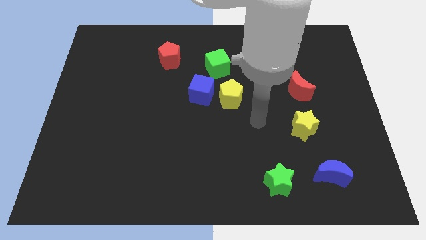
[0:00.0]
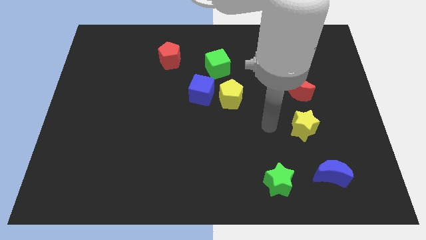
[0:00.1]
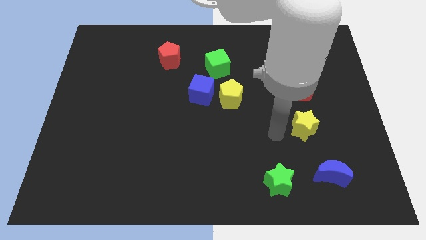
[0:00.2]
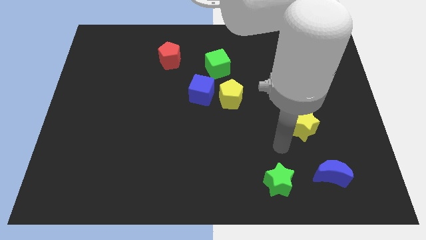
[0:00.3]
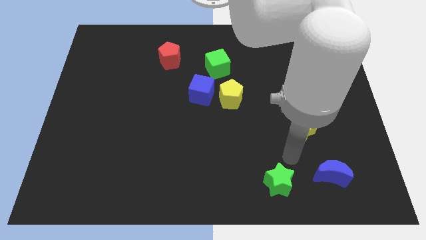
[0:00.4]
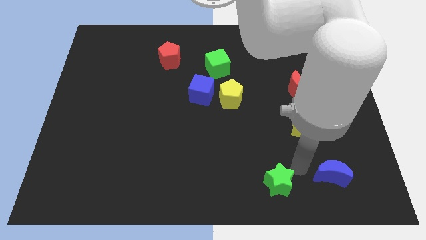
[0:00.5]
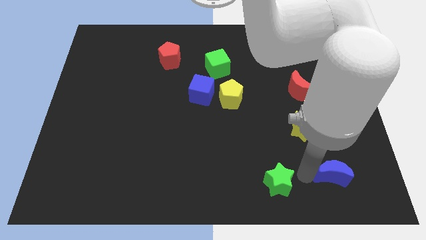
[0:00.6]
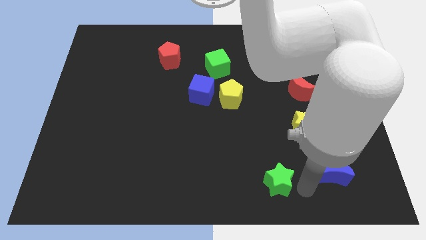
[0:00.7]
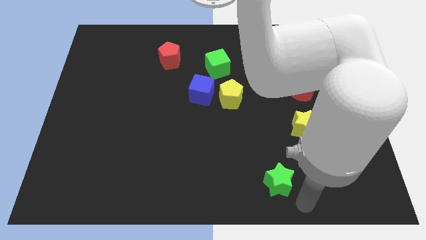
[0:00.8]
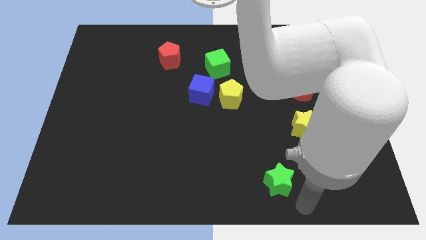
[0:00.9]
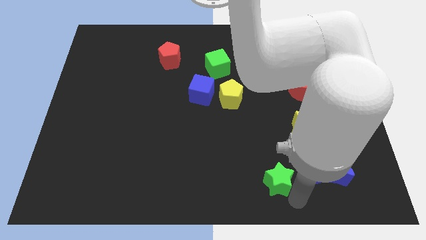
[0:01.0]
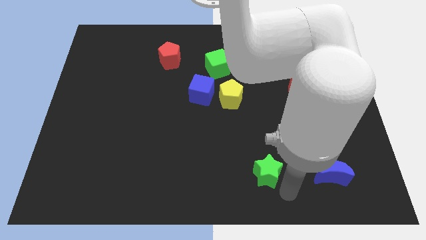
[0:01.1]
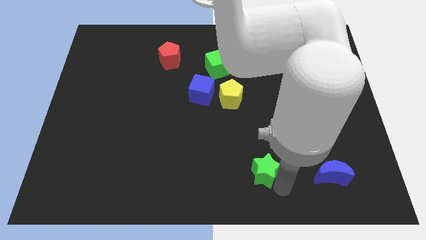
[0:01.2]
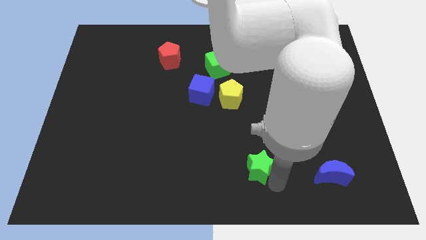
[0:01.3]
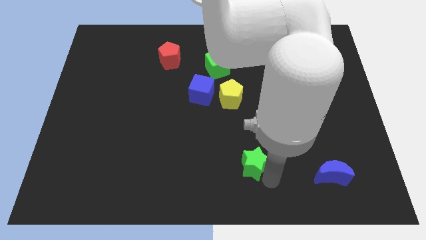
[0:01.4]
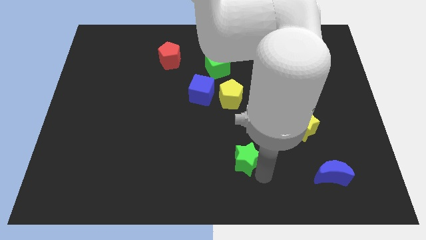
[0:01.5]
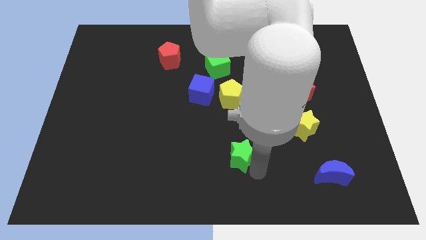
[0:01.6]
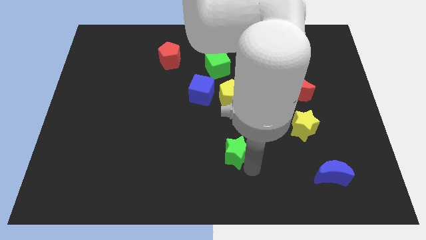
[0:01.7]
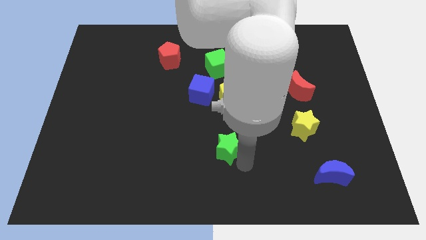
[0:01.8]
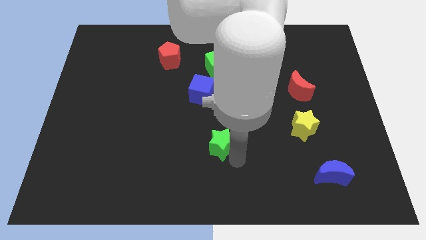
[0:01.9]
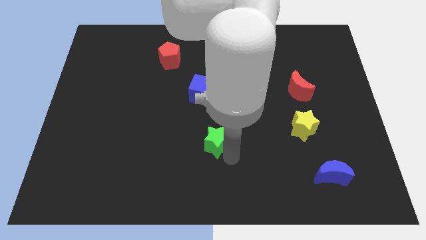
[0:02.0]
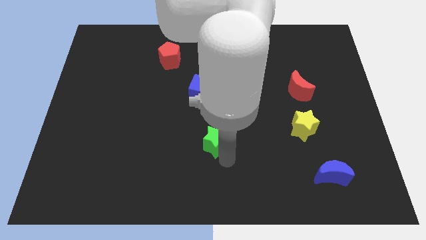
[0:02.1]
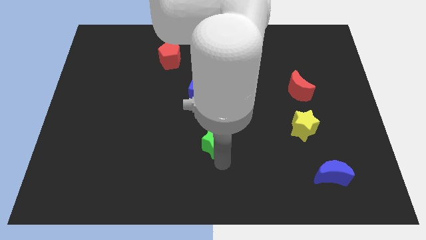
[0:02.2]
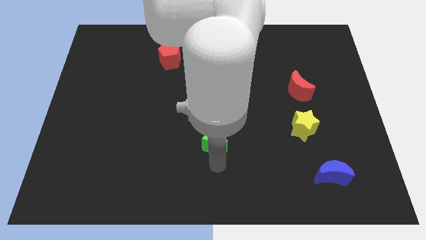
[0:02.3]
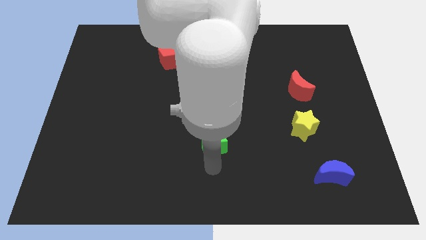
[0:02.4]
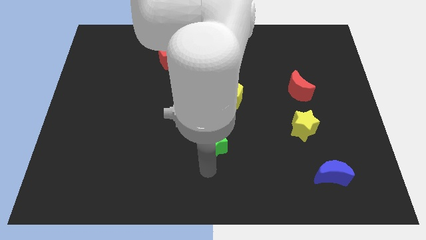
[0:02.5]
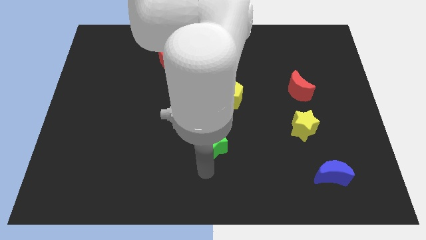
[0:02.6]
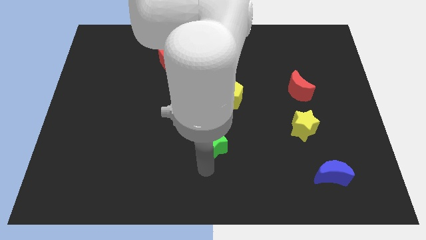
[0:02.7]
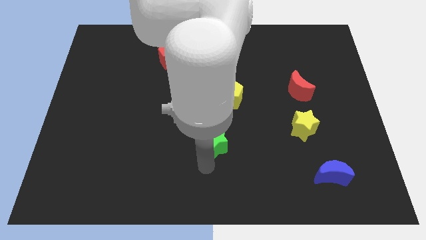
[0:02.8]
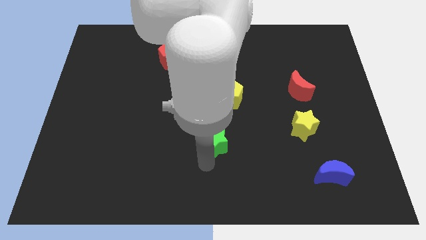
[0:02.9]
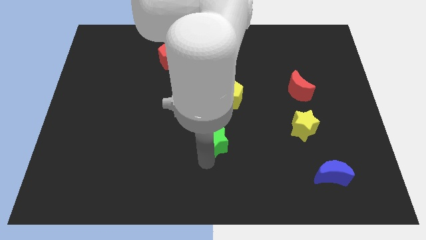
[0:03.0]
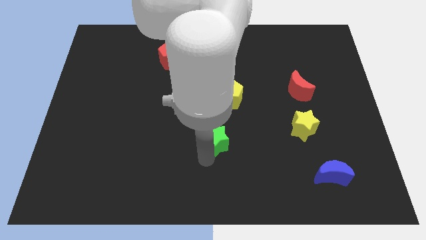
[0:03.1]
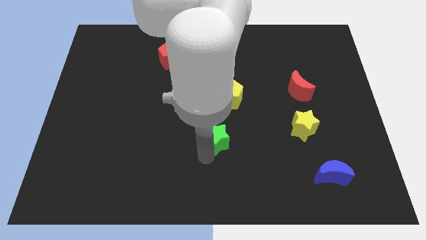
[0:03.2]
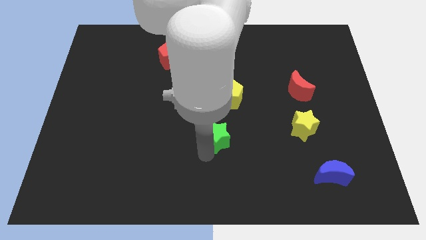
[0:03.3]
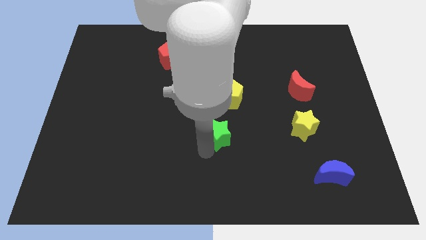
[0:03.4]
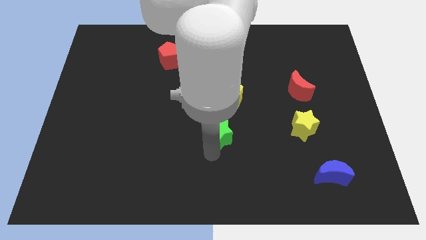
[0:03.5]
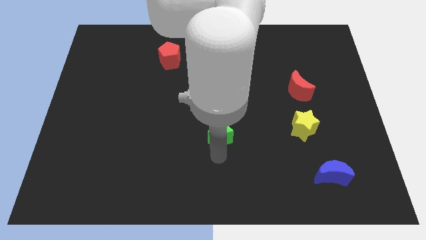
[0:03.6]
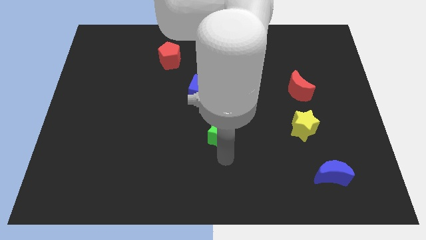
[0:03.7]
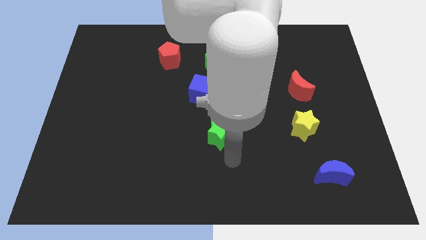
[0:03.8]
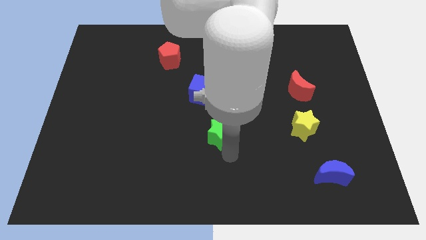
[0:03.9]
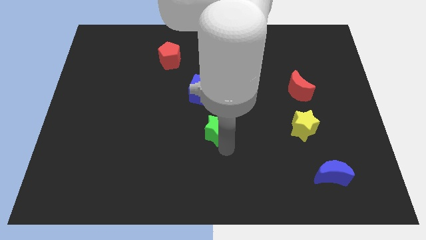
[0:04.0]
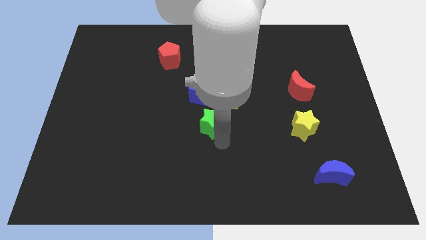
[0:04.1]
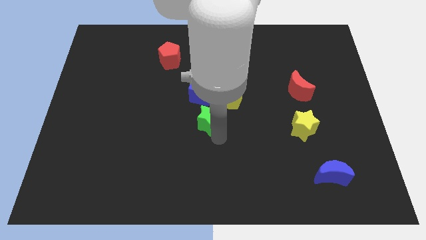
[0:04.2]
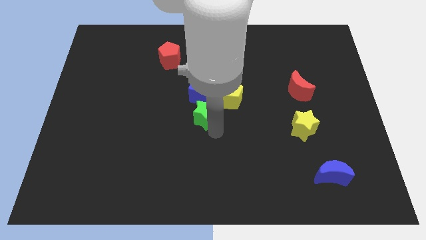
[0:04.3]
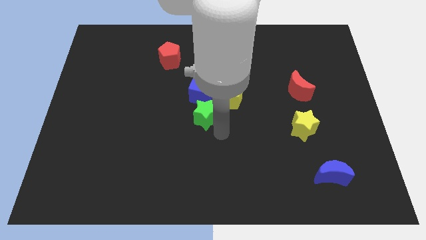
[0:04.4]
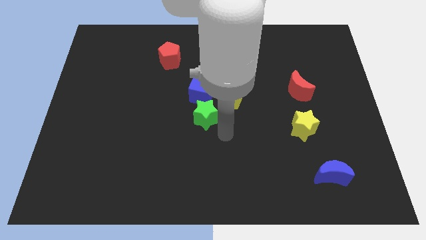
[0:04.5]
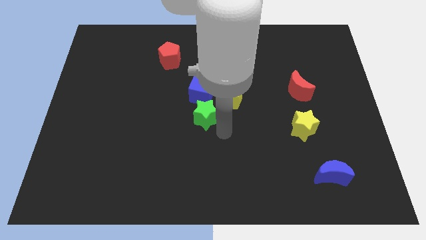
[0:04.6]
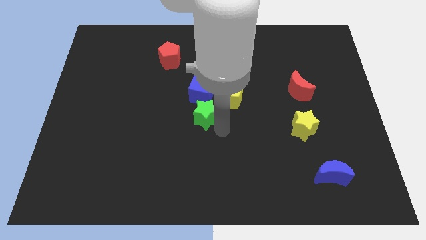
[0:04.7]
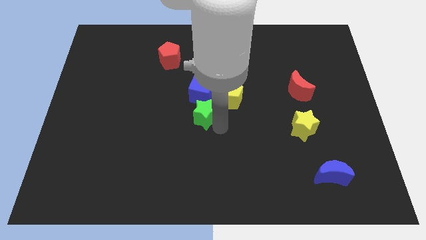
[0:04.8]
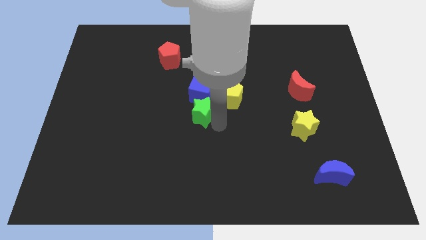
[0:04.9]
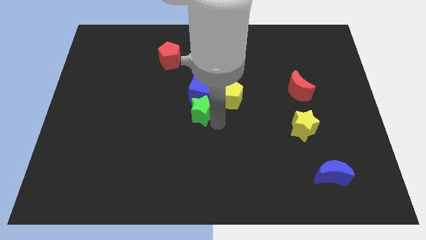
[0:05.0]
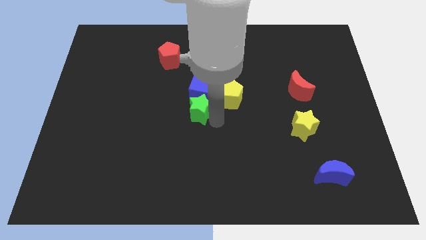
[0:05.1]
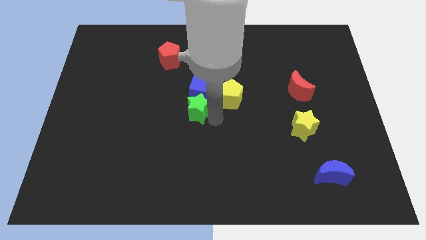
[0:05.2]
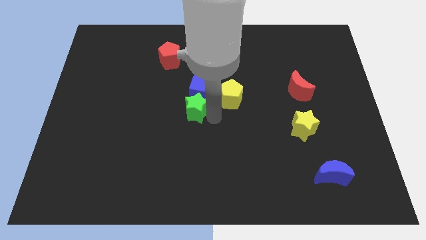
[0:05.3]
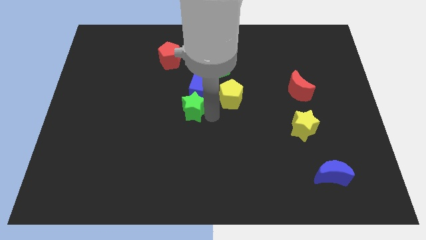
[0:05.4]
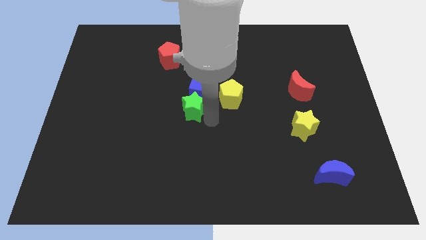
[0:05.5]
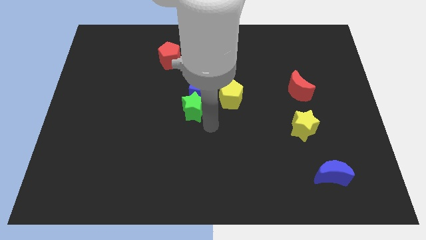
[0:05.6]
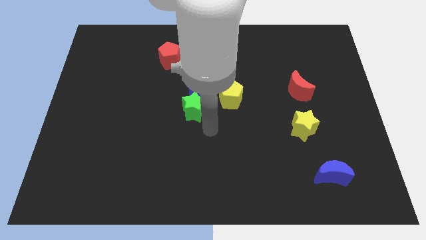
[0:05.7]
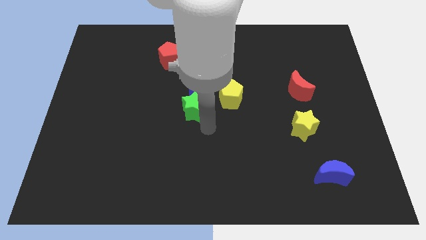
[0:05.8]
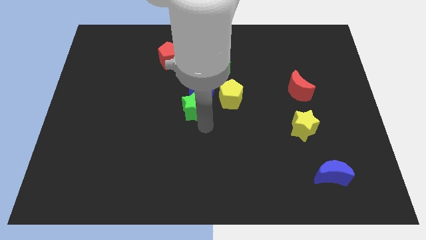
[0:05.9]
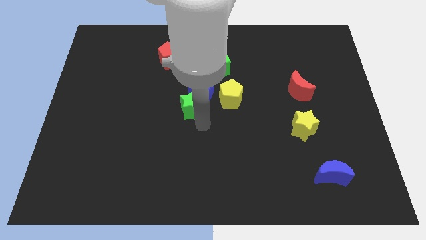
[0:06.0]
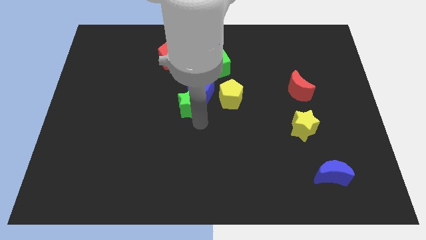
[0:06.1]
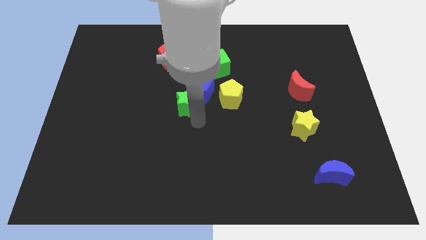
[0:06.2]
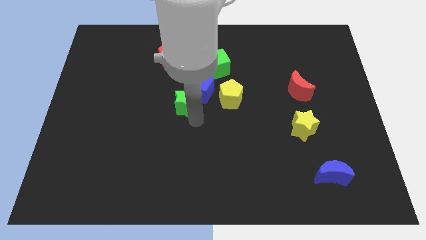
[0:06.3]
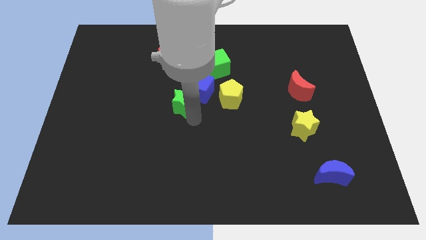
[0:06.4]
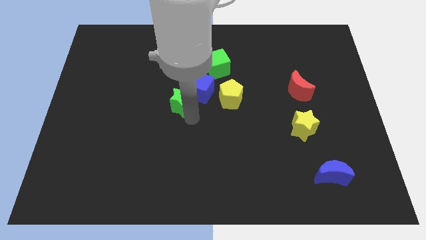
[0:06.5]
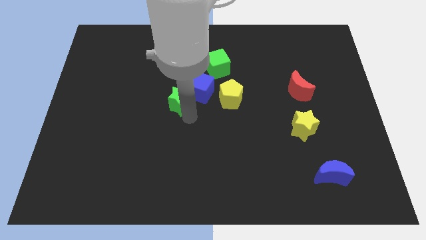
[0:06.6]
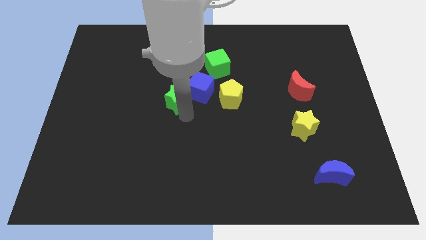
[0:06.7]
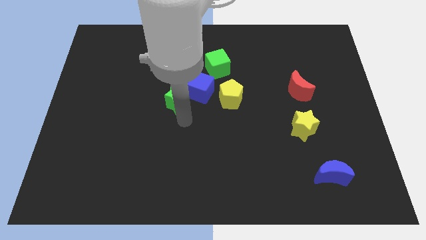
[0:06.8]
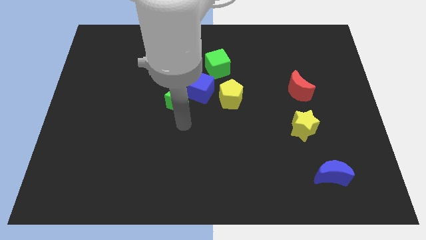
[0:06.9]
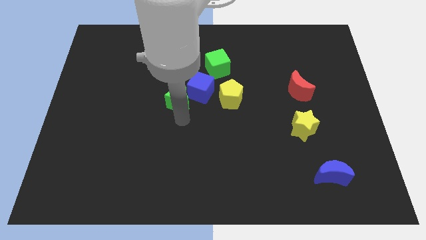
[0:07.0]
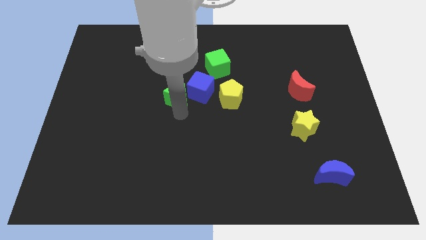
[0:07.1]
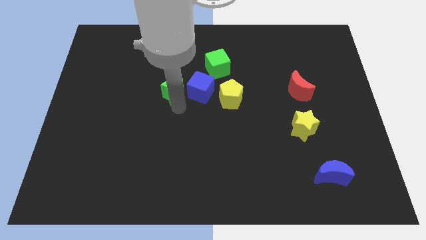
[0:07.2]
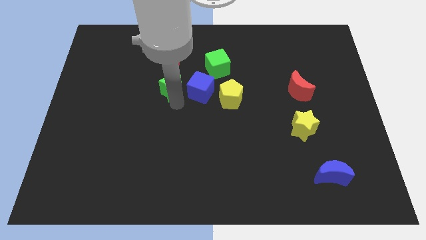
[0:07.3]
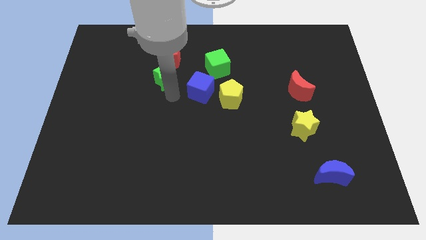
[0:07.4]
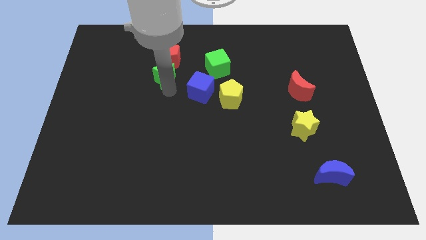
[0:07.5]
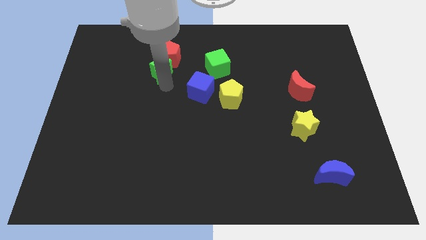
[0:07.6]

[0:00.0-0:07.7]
move the green star next to the red pentagon
